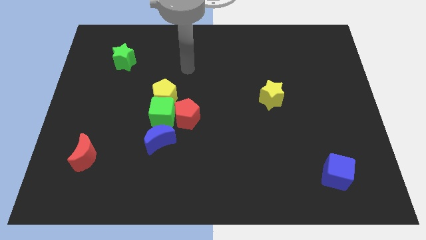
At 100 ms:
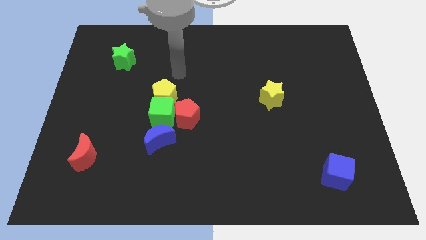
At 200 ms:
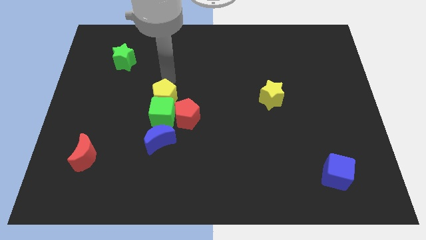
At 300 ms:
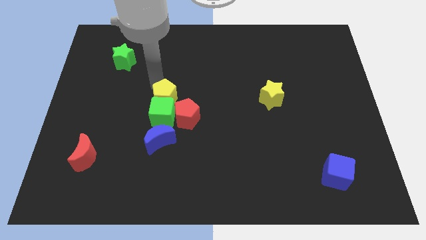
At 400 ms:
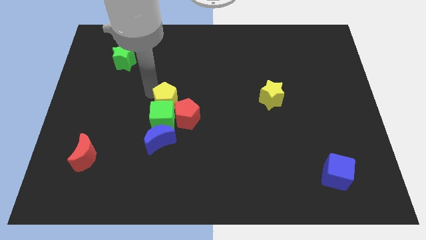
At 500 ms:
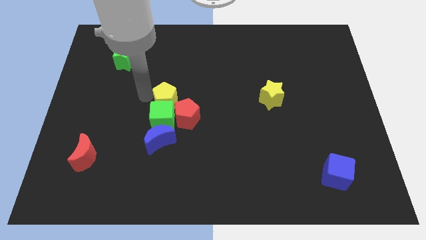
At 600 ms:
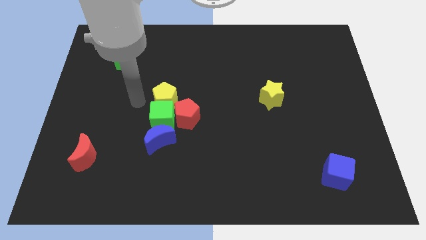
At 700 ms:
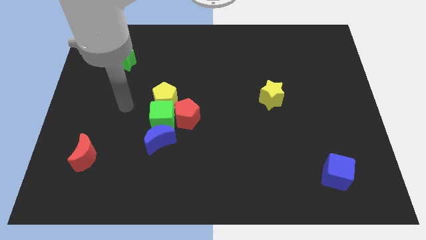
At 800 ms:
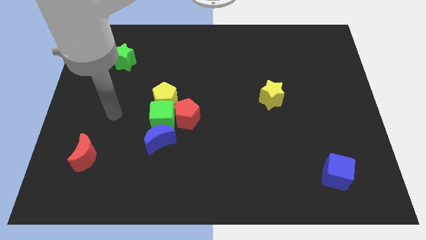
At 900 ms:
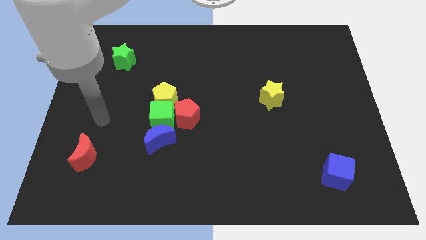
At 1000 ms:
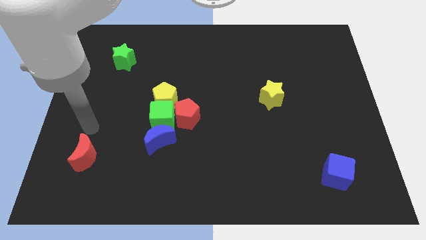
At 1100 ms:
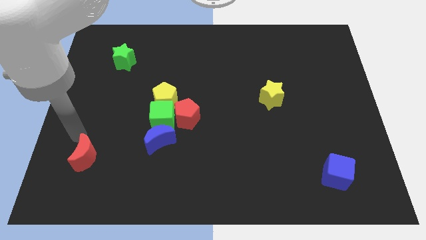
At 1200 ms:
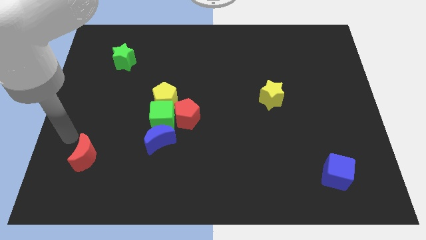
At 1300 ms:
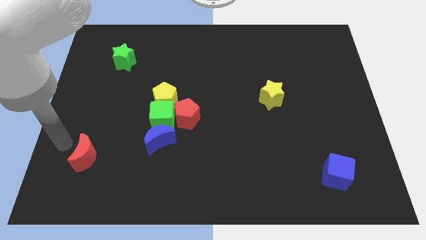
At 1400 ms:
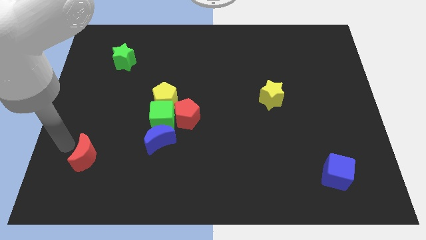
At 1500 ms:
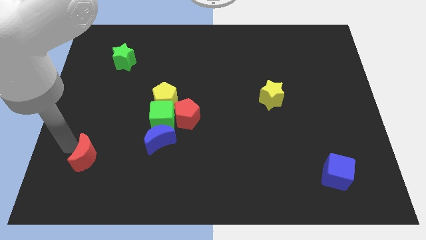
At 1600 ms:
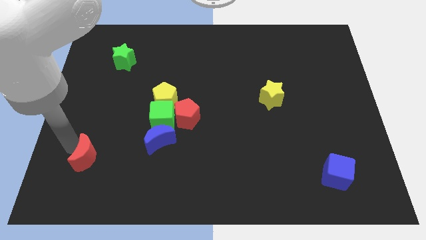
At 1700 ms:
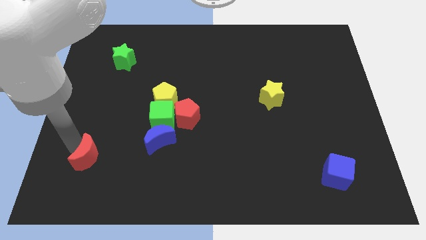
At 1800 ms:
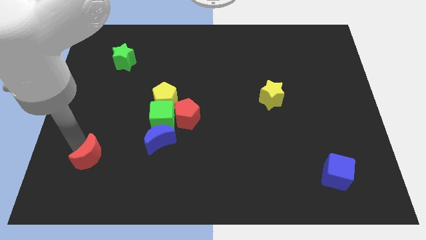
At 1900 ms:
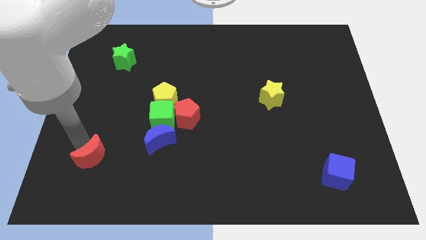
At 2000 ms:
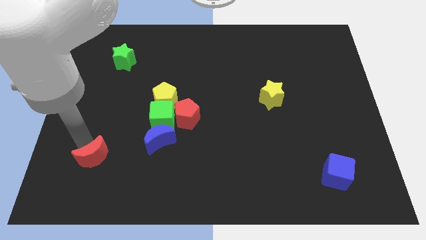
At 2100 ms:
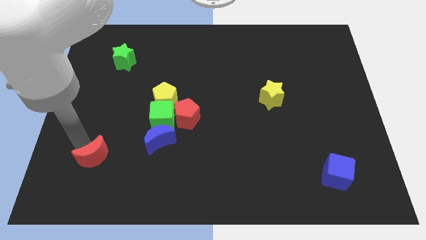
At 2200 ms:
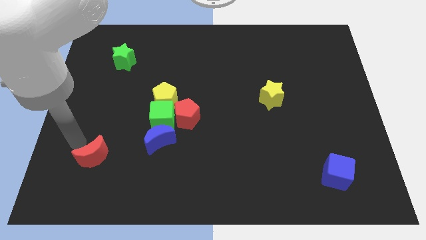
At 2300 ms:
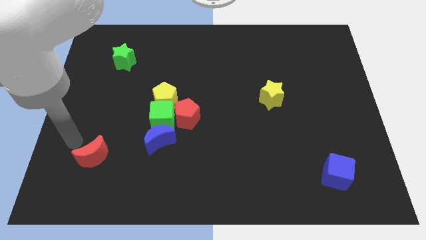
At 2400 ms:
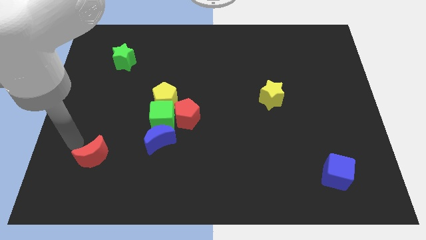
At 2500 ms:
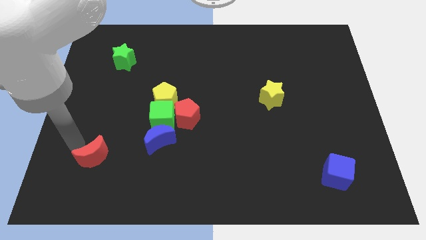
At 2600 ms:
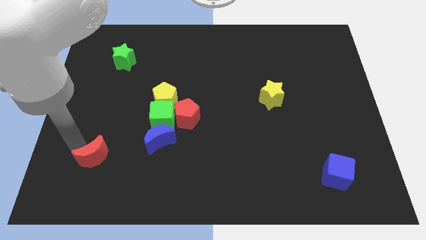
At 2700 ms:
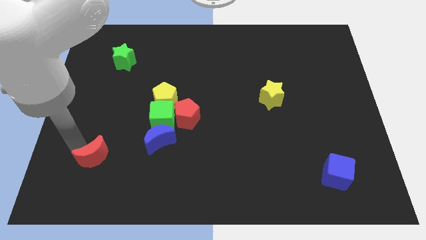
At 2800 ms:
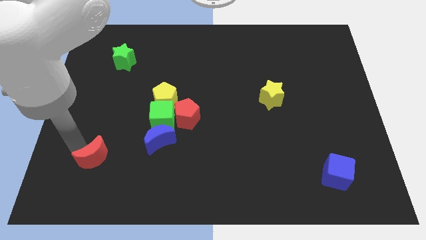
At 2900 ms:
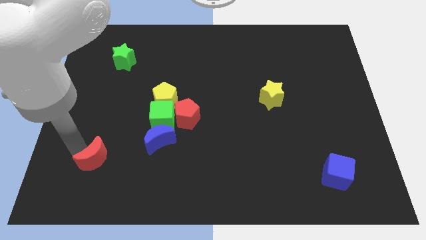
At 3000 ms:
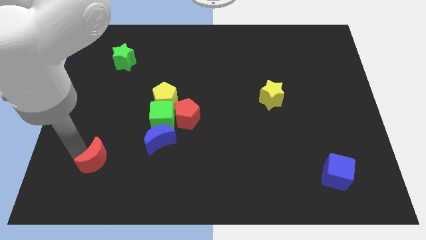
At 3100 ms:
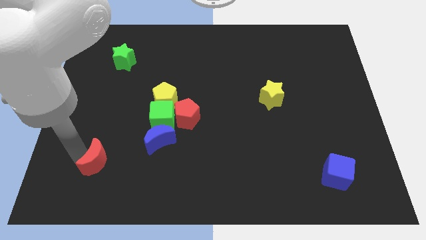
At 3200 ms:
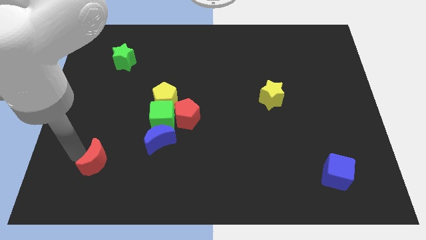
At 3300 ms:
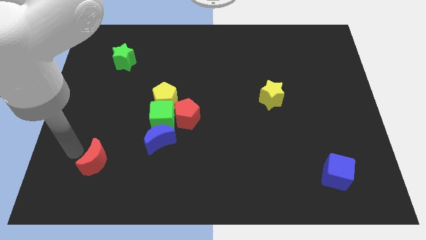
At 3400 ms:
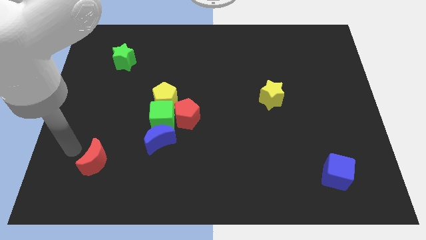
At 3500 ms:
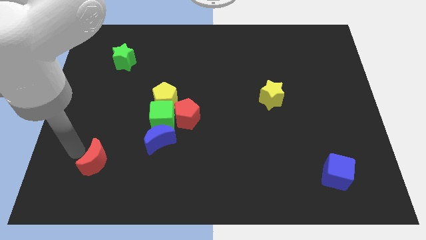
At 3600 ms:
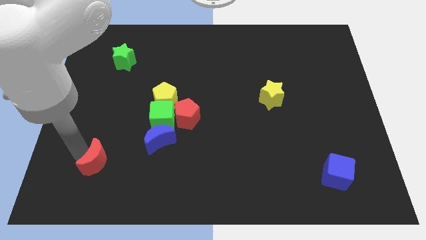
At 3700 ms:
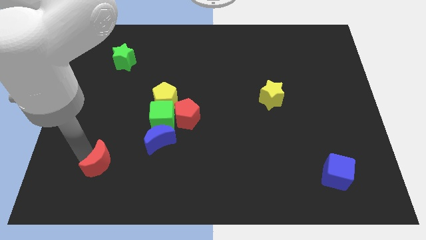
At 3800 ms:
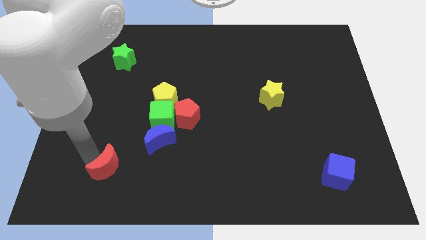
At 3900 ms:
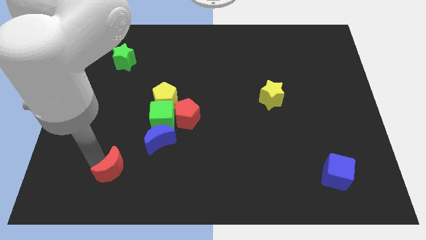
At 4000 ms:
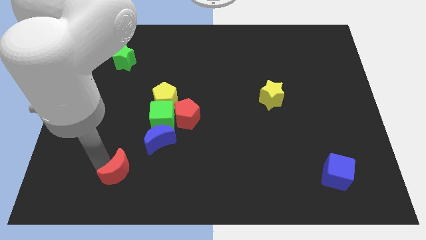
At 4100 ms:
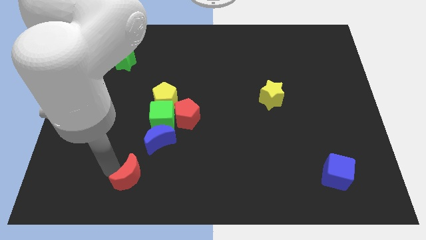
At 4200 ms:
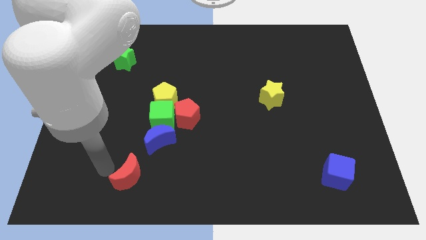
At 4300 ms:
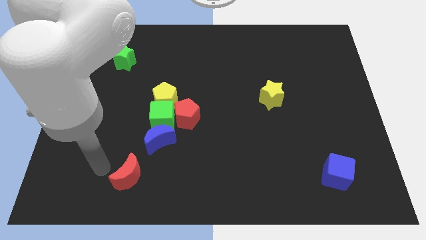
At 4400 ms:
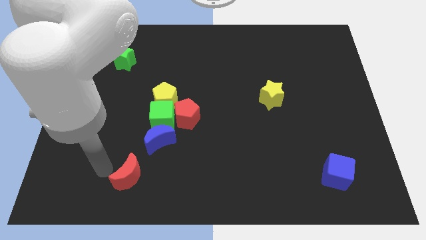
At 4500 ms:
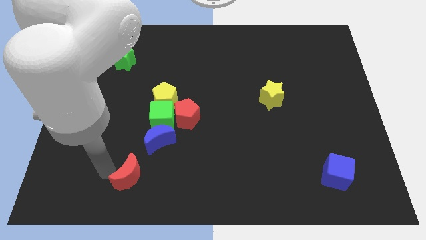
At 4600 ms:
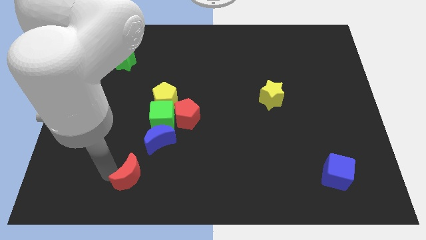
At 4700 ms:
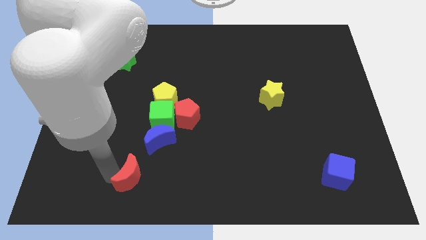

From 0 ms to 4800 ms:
put the red moon to the bottom of the blue moon

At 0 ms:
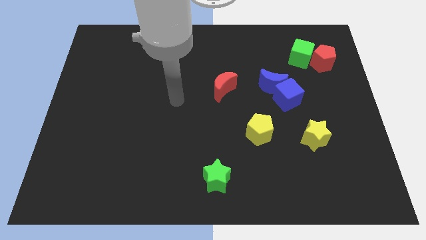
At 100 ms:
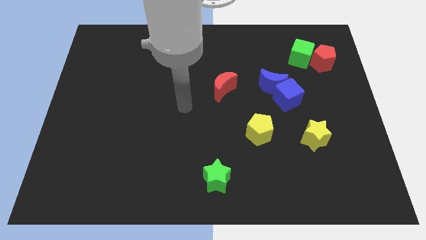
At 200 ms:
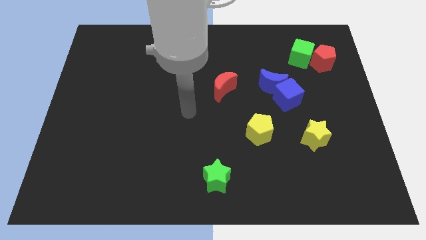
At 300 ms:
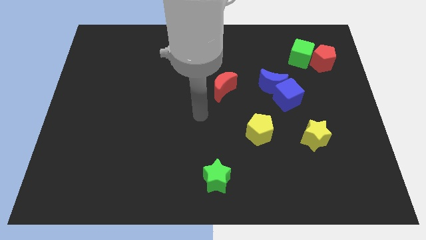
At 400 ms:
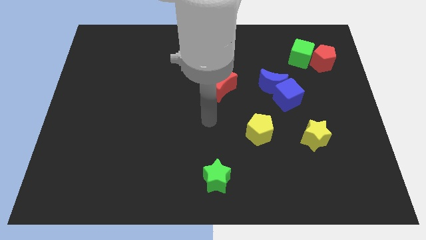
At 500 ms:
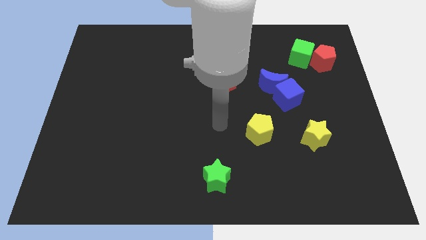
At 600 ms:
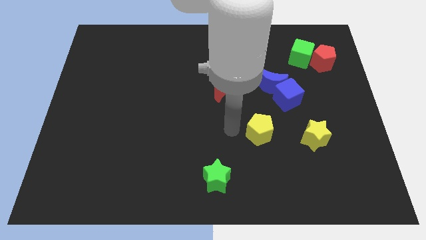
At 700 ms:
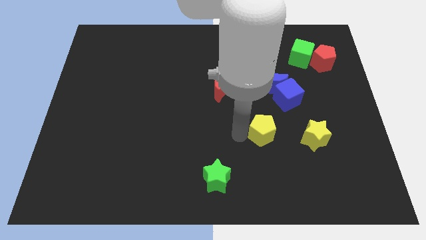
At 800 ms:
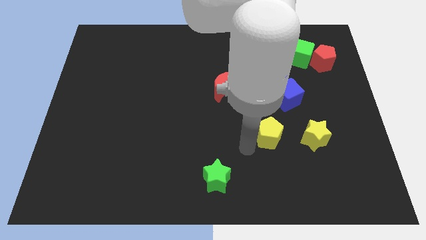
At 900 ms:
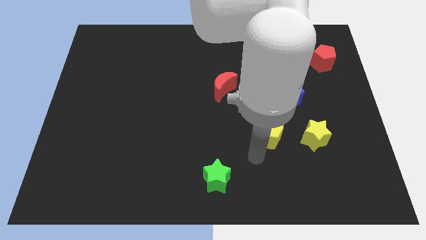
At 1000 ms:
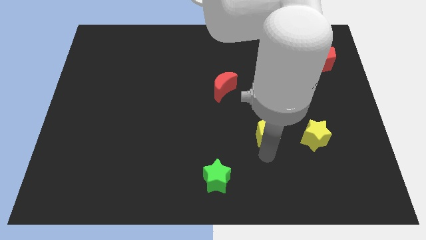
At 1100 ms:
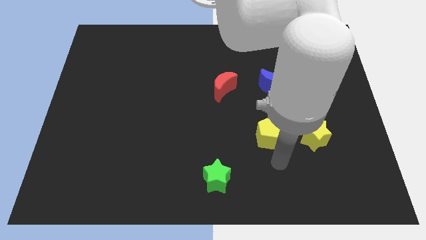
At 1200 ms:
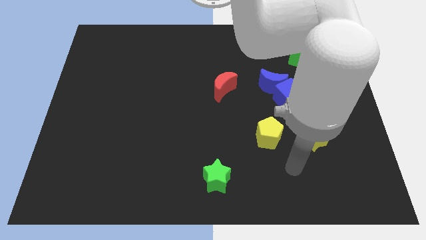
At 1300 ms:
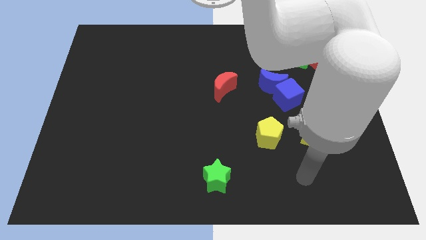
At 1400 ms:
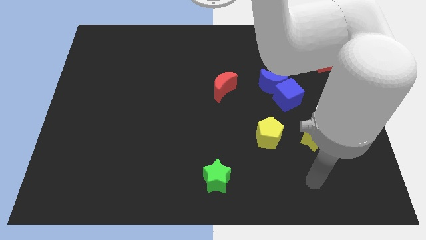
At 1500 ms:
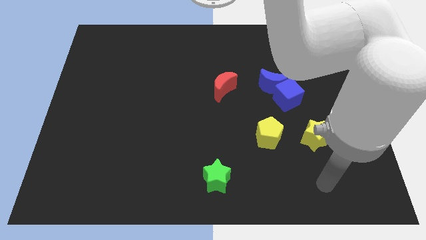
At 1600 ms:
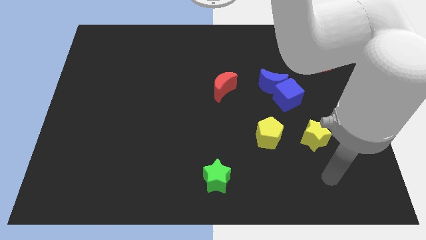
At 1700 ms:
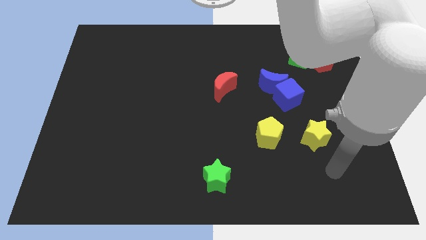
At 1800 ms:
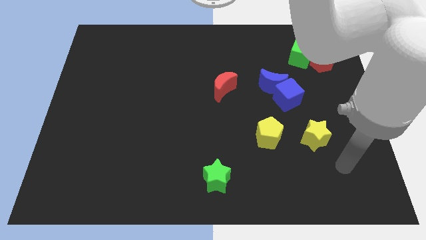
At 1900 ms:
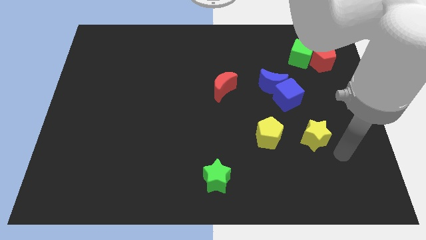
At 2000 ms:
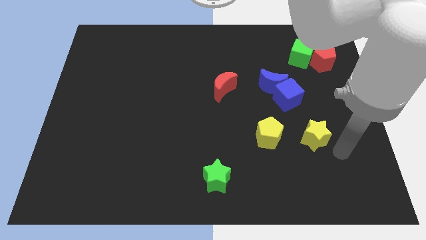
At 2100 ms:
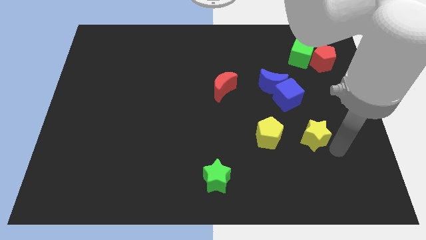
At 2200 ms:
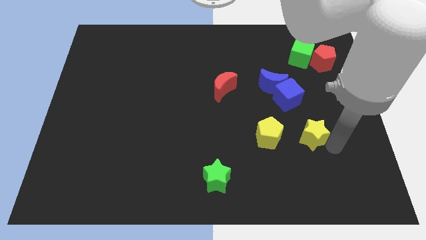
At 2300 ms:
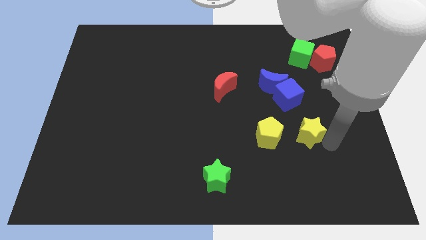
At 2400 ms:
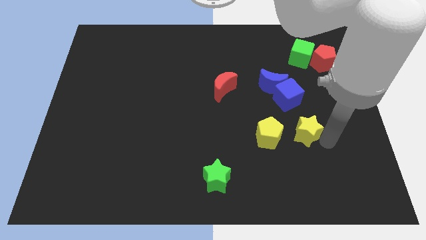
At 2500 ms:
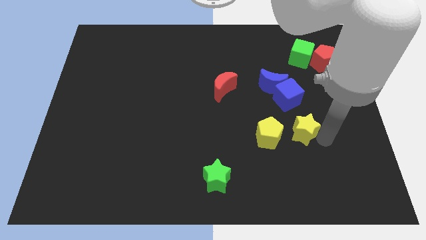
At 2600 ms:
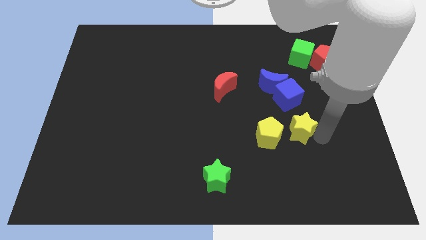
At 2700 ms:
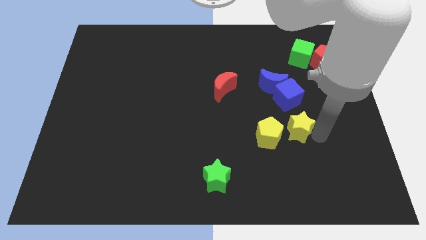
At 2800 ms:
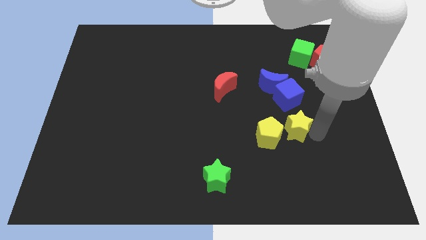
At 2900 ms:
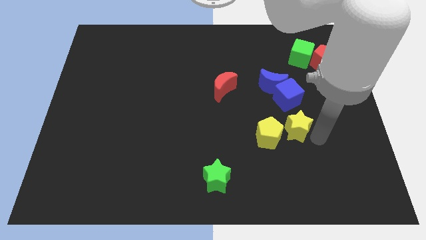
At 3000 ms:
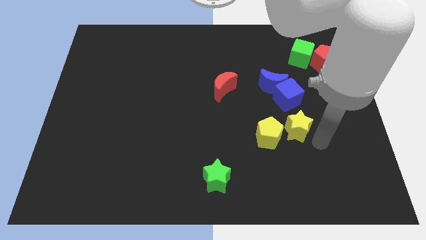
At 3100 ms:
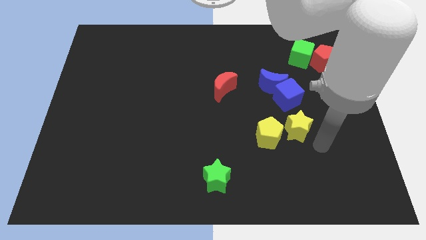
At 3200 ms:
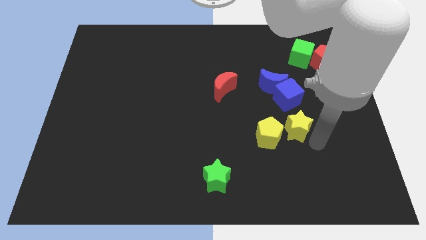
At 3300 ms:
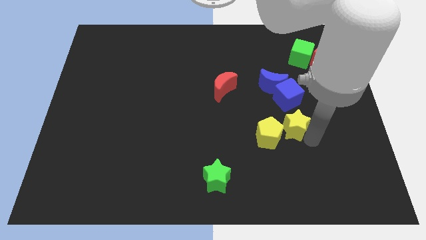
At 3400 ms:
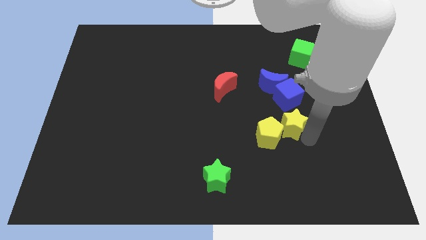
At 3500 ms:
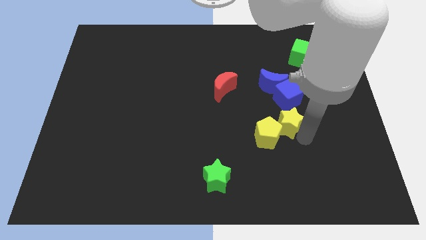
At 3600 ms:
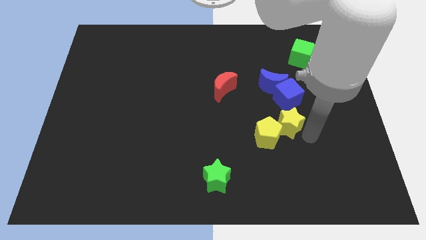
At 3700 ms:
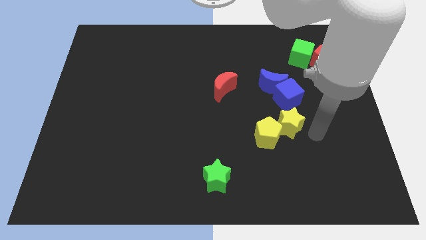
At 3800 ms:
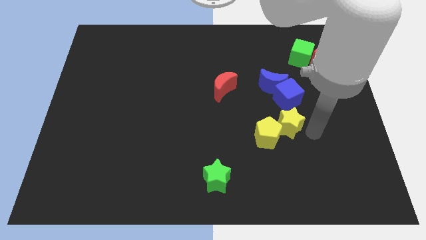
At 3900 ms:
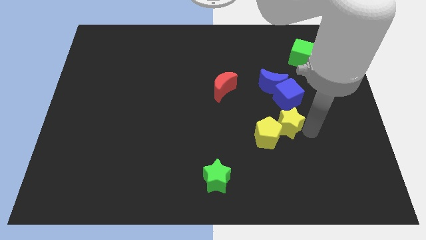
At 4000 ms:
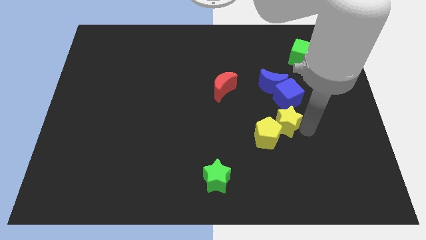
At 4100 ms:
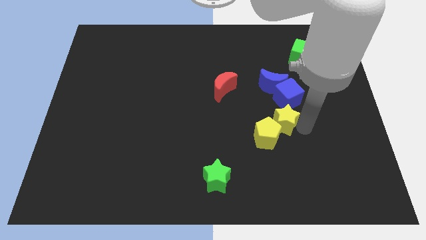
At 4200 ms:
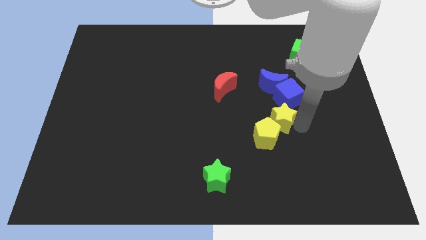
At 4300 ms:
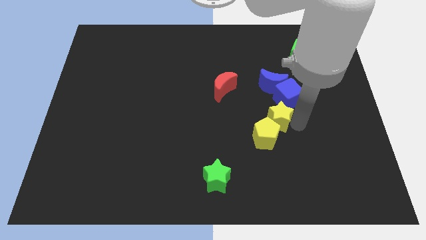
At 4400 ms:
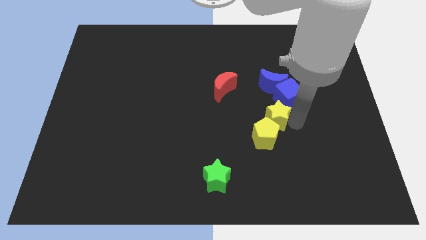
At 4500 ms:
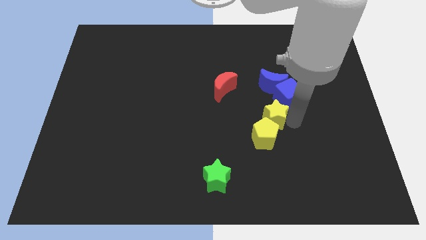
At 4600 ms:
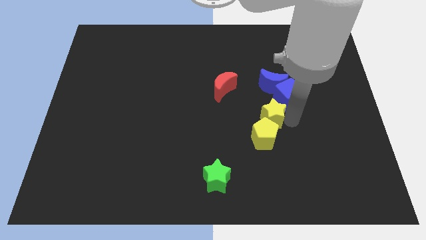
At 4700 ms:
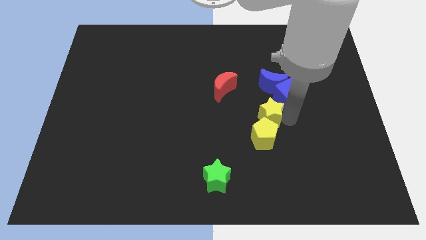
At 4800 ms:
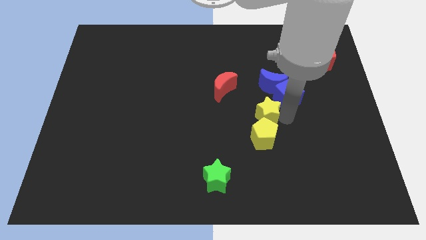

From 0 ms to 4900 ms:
put the yellow star to the top left side of the yellow pentagon
